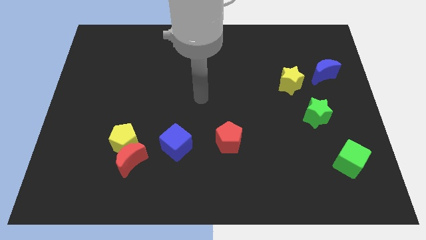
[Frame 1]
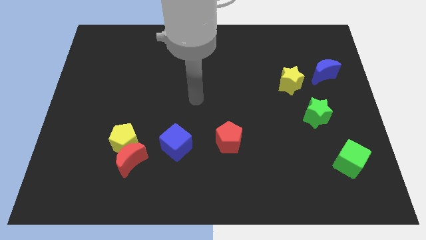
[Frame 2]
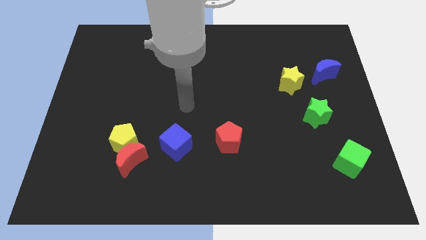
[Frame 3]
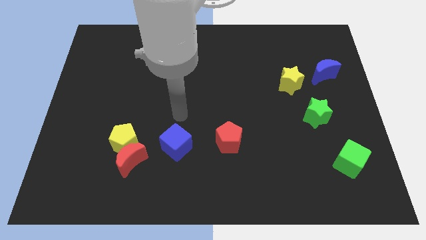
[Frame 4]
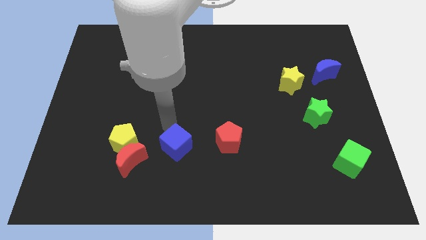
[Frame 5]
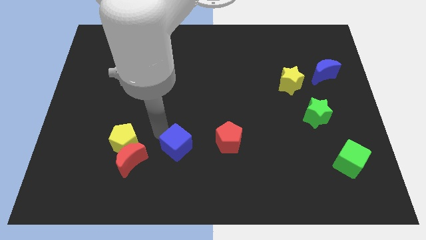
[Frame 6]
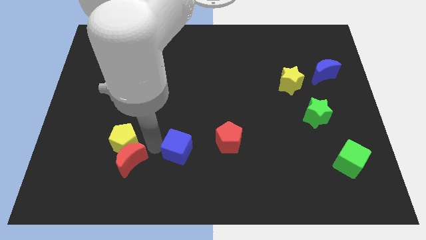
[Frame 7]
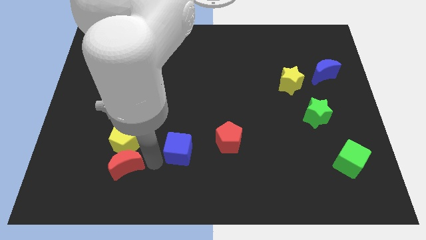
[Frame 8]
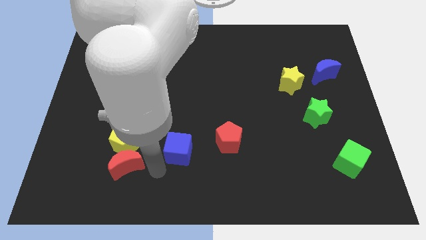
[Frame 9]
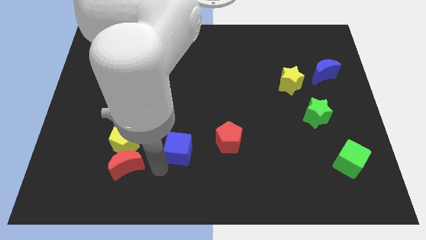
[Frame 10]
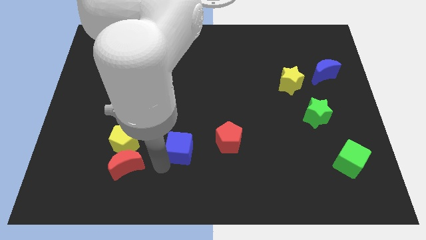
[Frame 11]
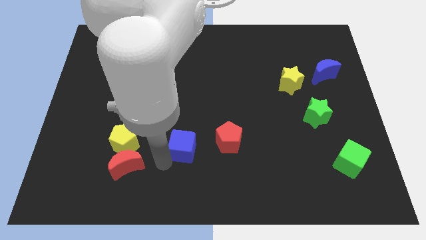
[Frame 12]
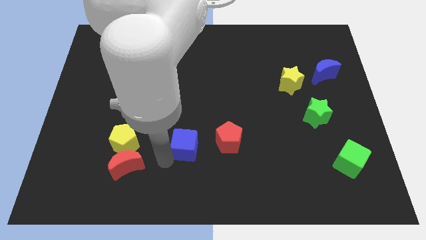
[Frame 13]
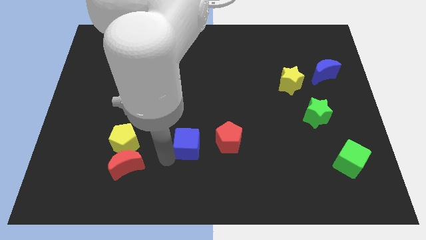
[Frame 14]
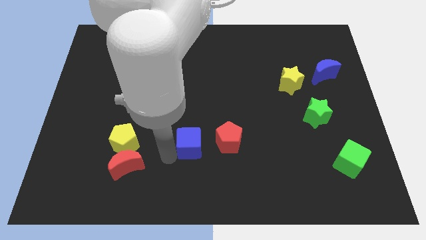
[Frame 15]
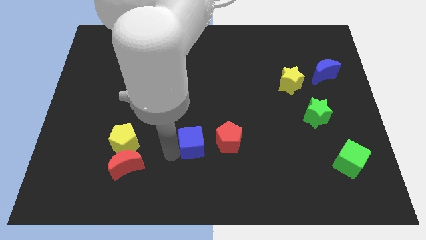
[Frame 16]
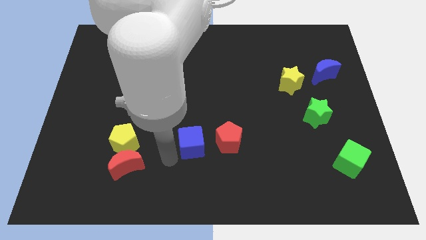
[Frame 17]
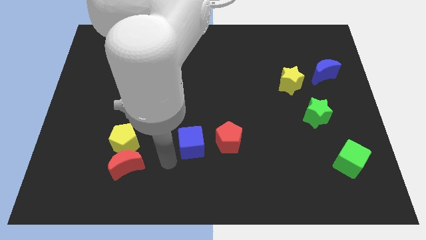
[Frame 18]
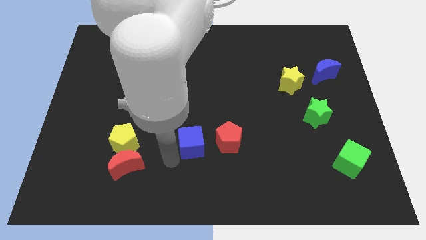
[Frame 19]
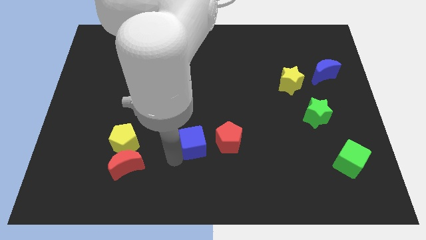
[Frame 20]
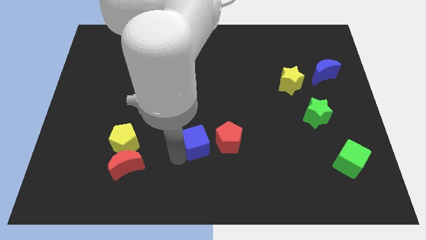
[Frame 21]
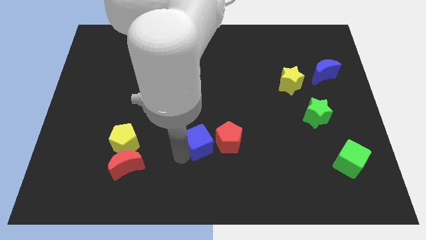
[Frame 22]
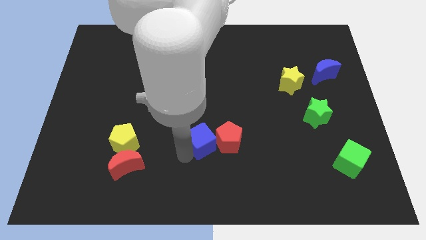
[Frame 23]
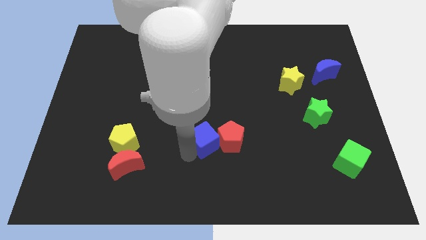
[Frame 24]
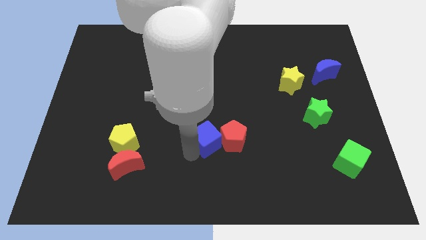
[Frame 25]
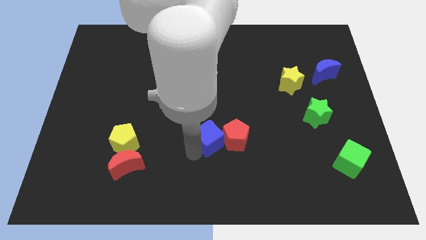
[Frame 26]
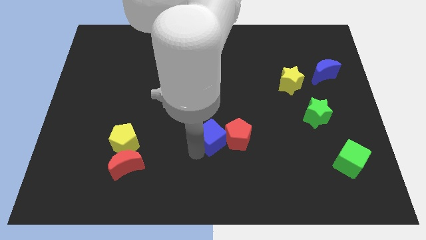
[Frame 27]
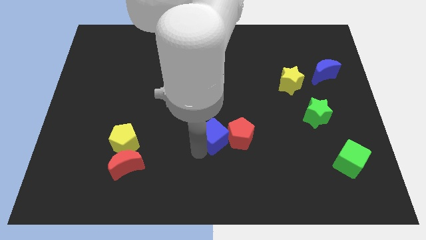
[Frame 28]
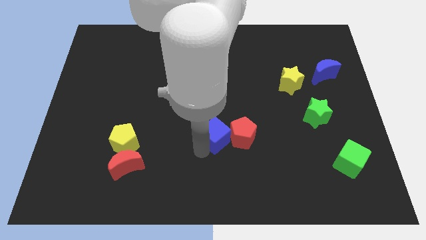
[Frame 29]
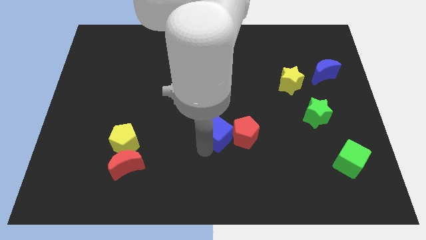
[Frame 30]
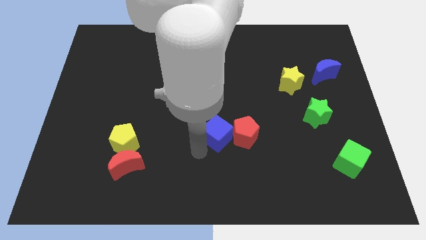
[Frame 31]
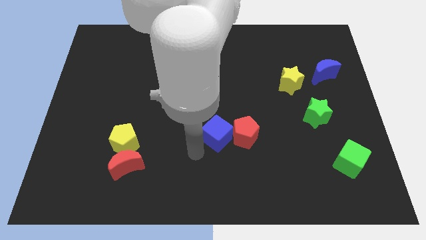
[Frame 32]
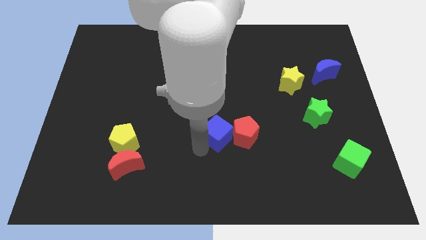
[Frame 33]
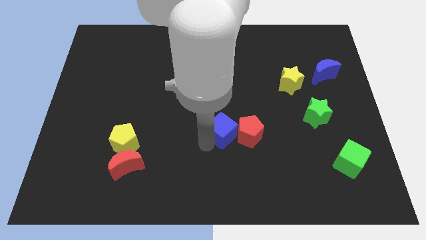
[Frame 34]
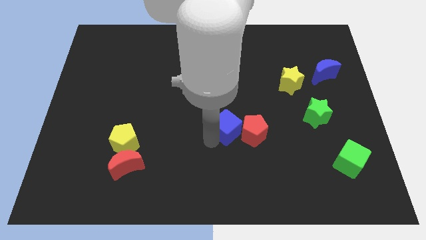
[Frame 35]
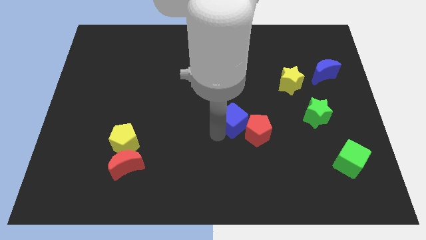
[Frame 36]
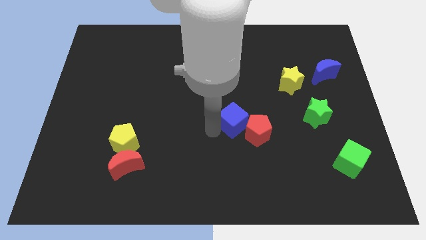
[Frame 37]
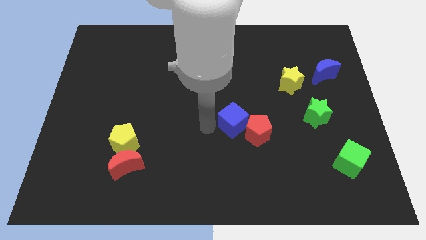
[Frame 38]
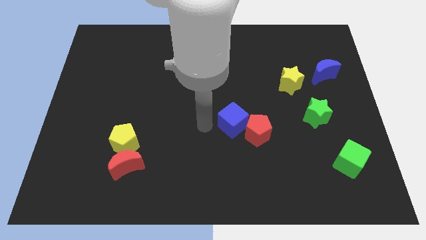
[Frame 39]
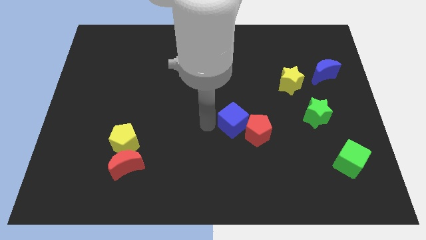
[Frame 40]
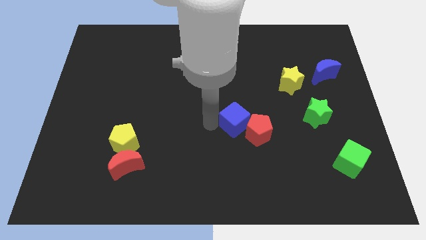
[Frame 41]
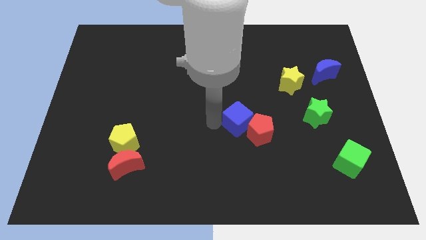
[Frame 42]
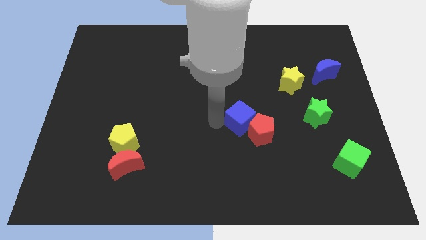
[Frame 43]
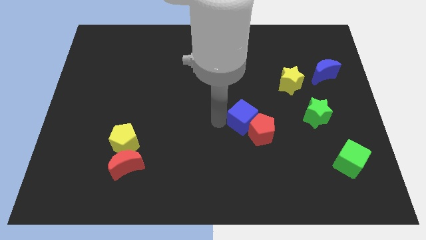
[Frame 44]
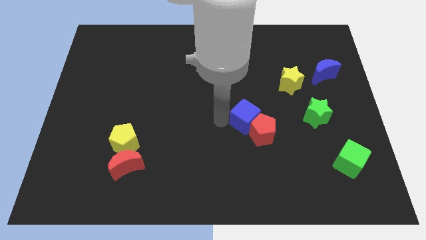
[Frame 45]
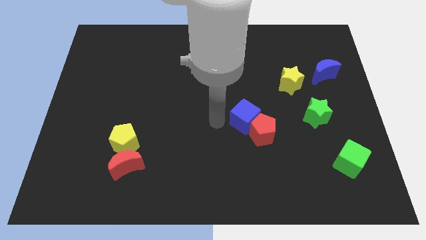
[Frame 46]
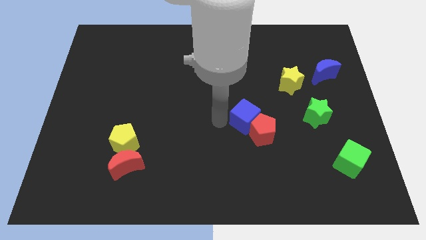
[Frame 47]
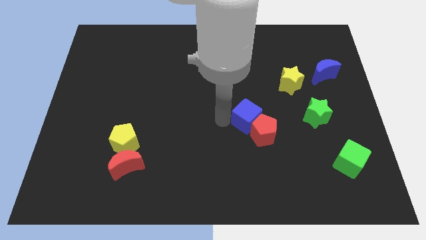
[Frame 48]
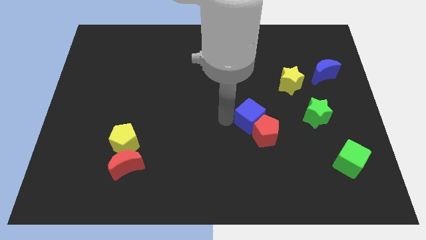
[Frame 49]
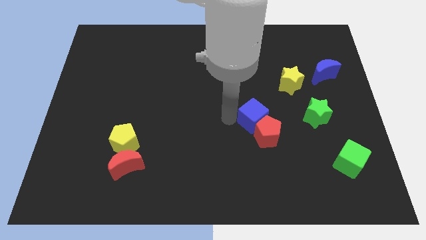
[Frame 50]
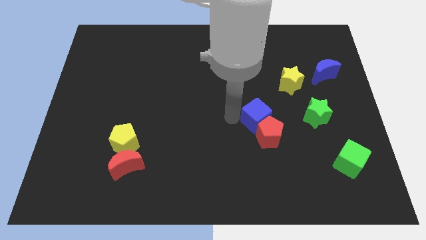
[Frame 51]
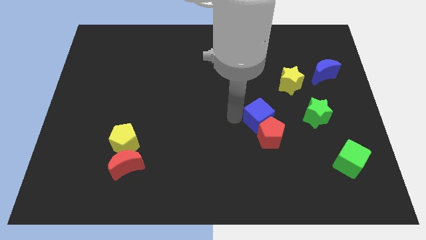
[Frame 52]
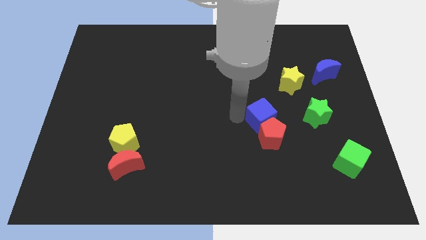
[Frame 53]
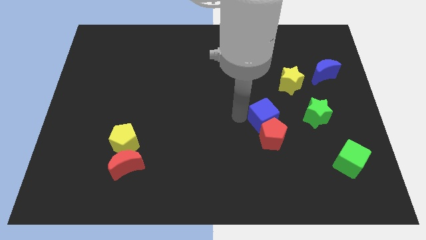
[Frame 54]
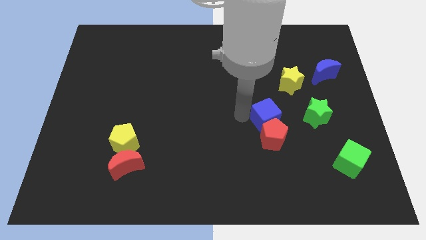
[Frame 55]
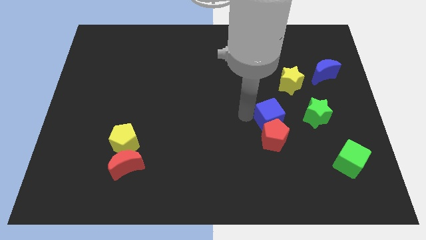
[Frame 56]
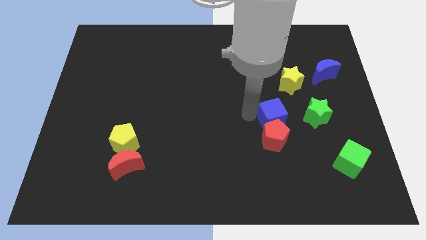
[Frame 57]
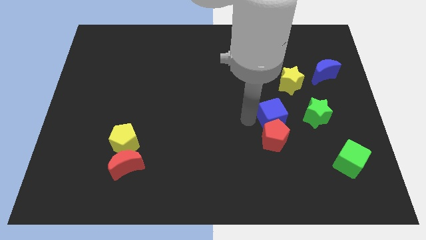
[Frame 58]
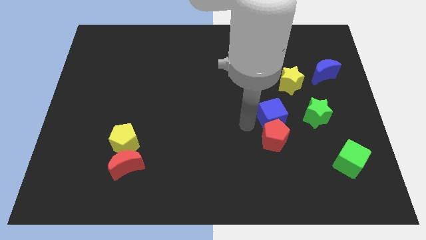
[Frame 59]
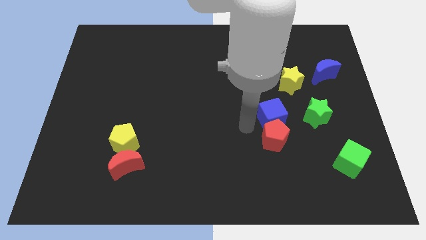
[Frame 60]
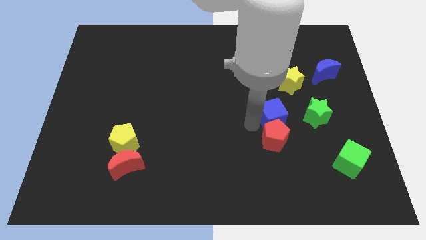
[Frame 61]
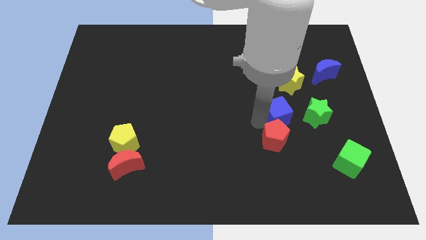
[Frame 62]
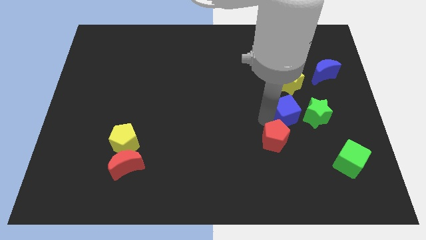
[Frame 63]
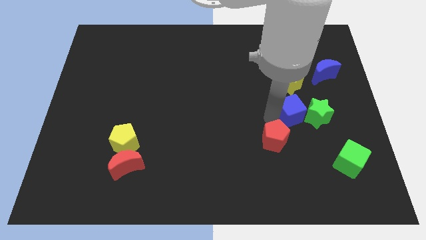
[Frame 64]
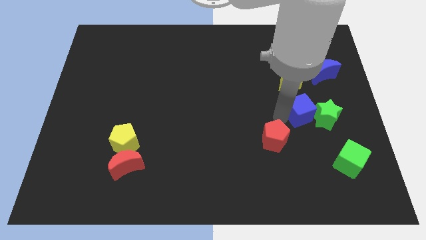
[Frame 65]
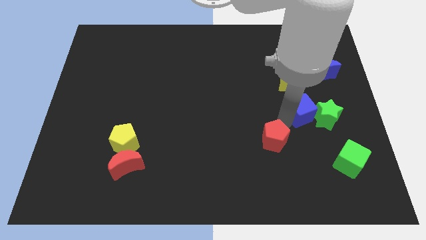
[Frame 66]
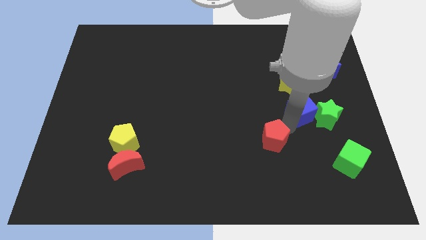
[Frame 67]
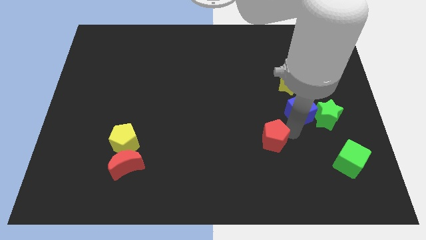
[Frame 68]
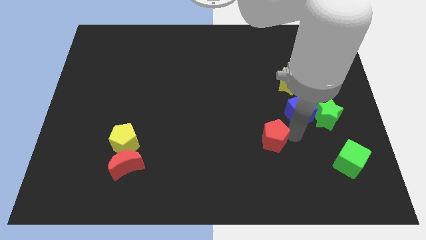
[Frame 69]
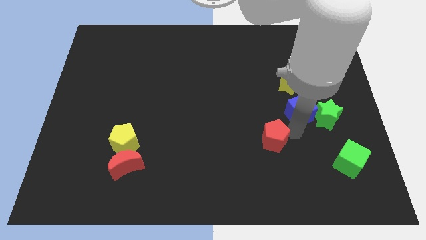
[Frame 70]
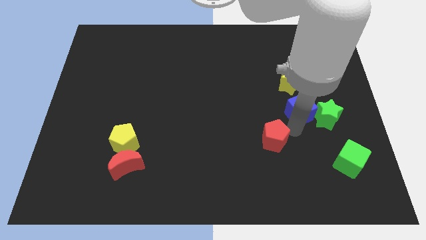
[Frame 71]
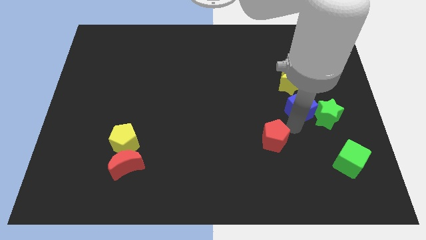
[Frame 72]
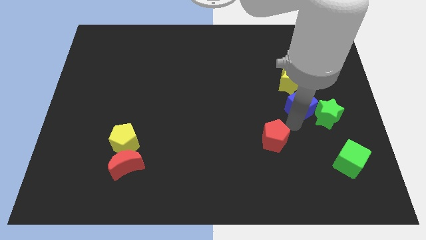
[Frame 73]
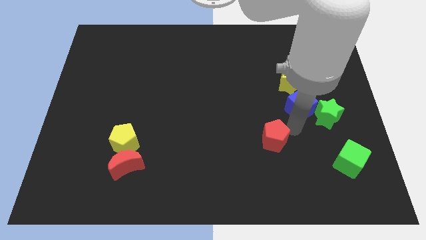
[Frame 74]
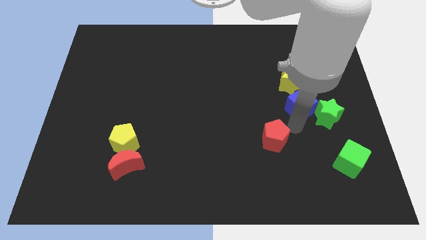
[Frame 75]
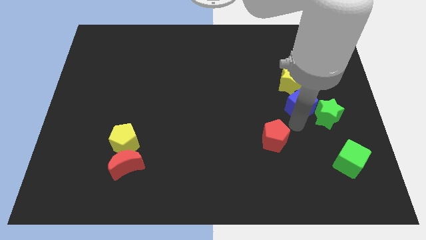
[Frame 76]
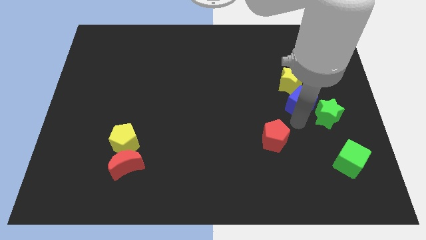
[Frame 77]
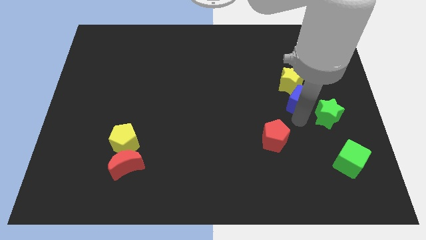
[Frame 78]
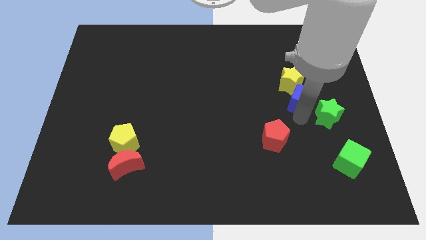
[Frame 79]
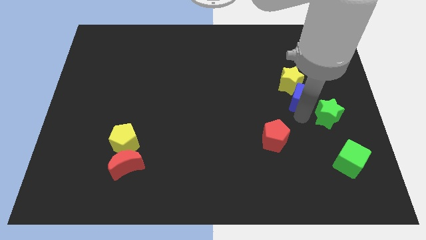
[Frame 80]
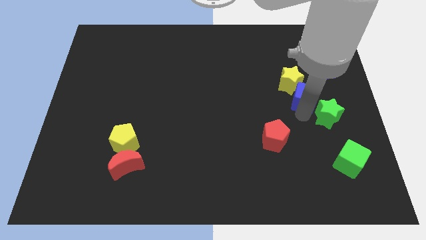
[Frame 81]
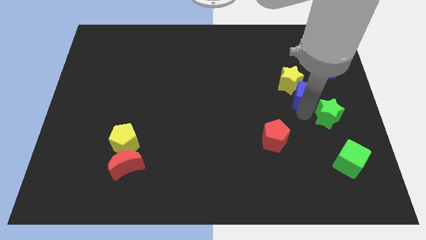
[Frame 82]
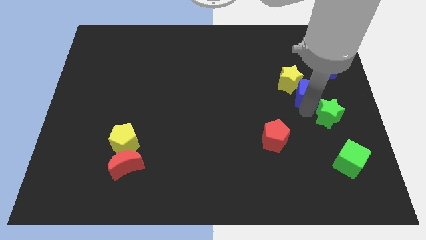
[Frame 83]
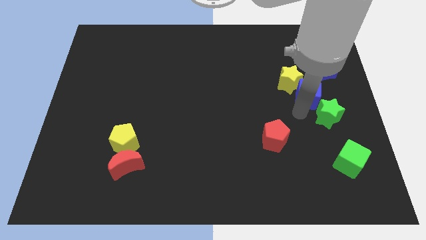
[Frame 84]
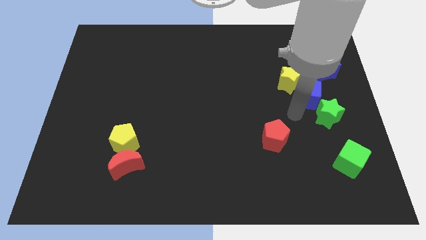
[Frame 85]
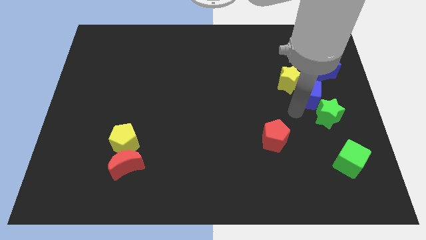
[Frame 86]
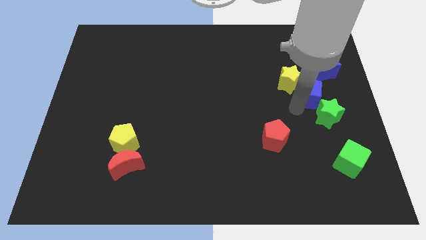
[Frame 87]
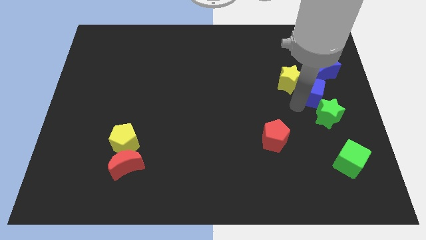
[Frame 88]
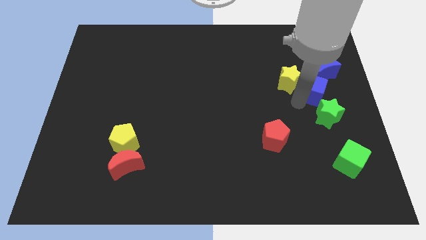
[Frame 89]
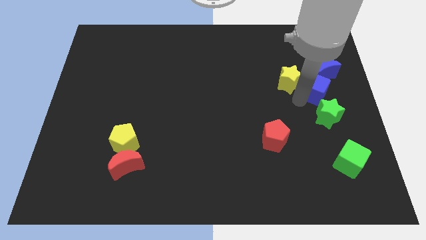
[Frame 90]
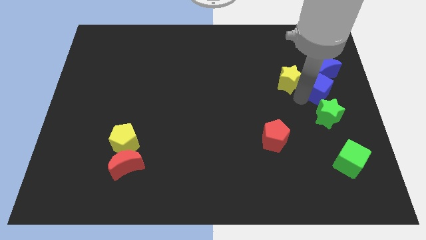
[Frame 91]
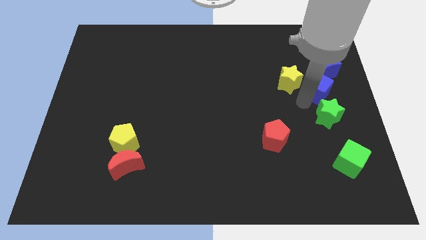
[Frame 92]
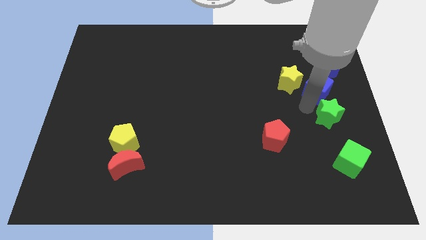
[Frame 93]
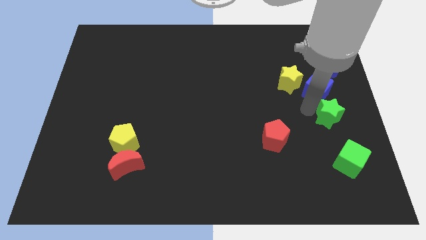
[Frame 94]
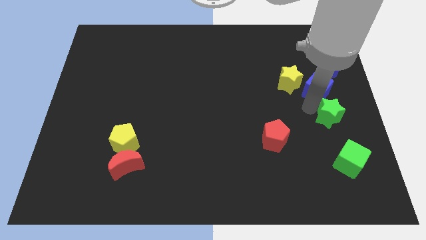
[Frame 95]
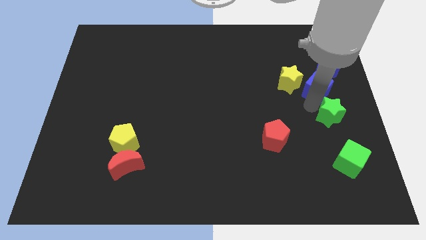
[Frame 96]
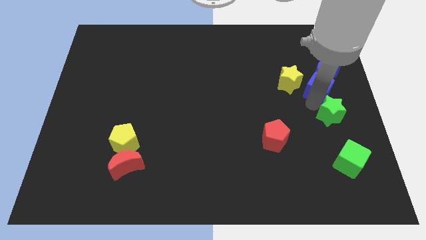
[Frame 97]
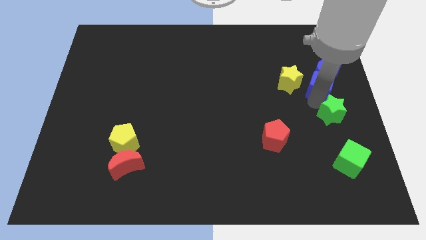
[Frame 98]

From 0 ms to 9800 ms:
move the blue cube close to the blue moon
